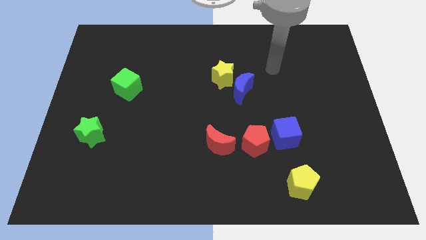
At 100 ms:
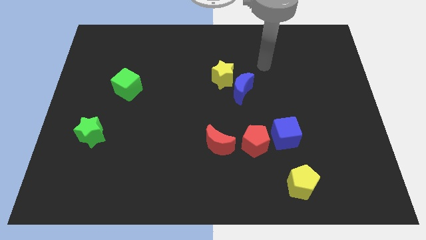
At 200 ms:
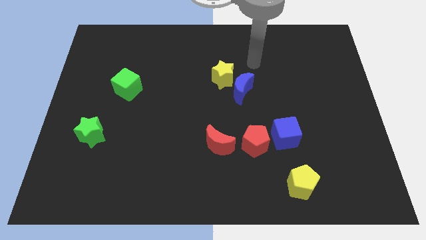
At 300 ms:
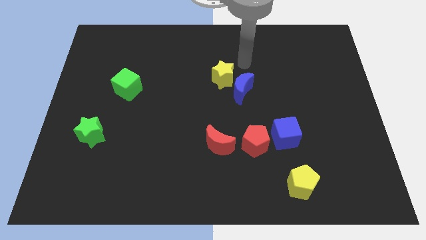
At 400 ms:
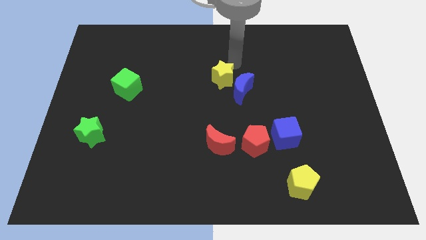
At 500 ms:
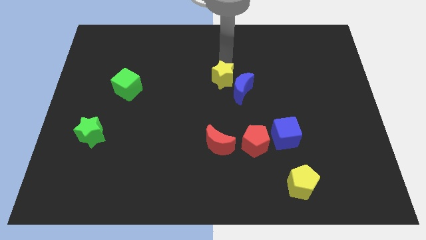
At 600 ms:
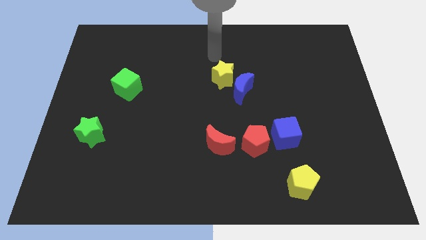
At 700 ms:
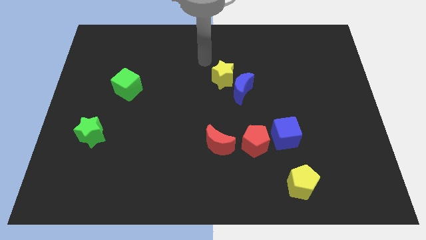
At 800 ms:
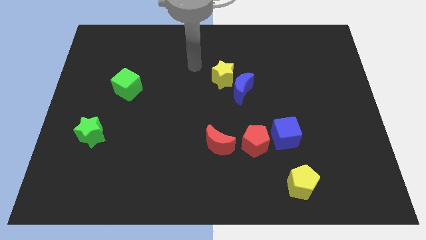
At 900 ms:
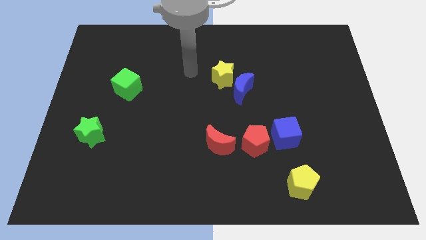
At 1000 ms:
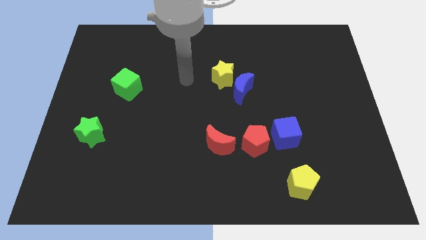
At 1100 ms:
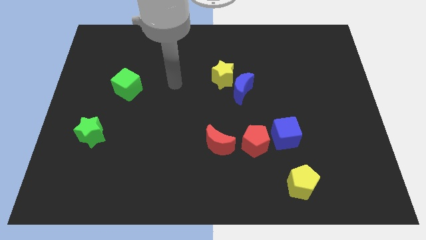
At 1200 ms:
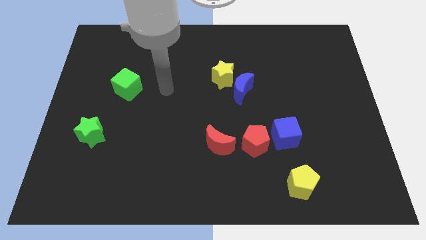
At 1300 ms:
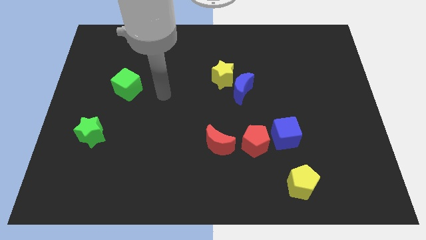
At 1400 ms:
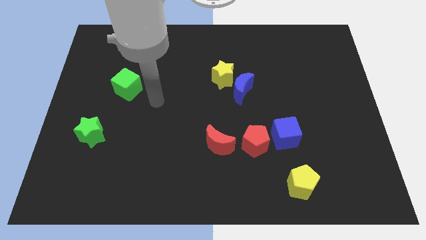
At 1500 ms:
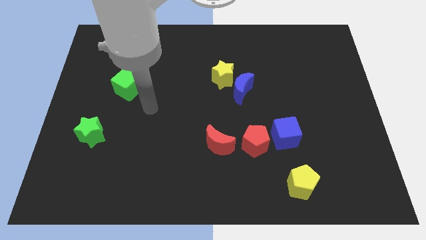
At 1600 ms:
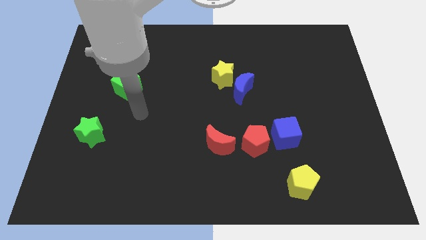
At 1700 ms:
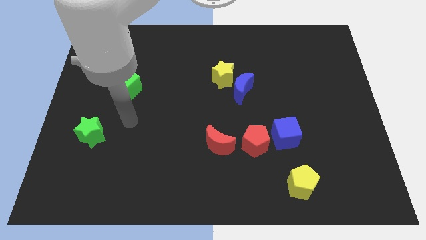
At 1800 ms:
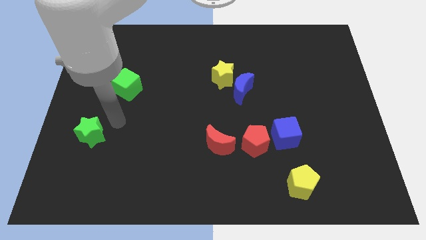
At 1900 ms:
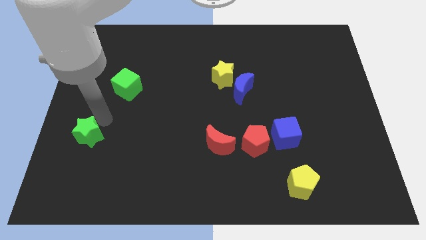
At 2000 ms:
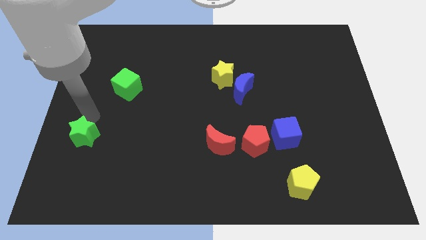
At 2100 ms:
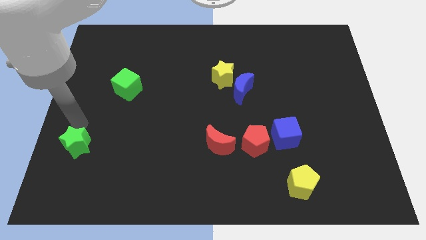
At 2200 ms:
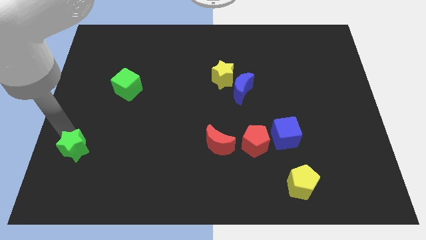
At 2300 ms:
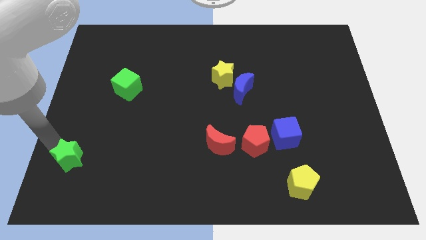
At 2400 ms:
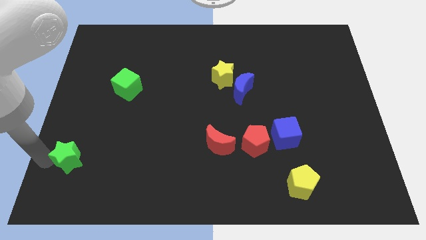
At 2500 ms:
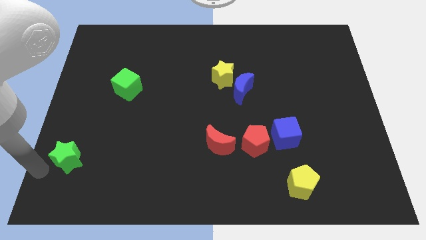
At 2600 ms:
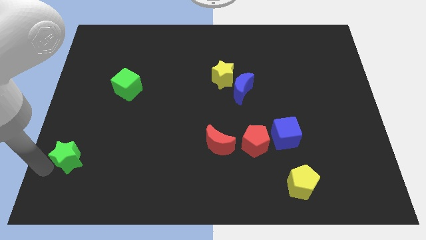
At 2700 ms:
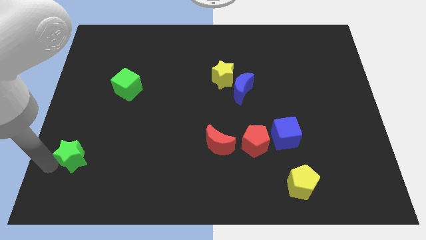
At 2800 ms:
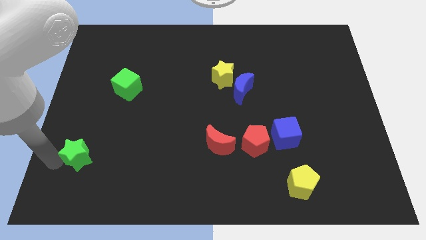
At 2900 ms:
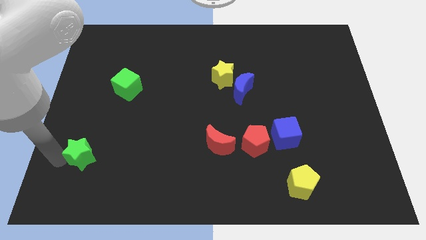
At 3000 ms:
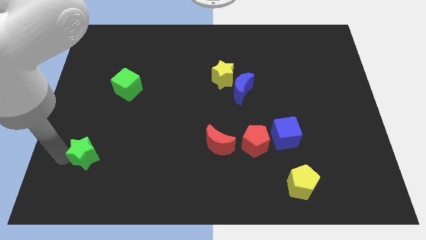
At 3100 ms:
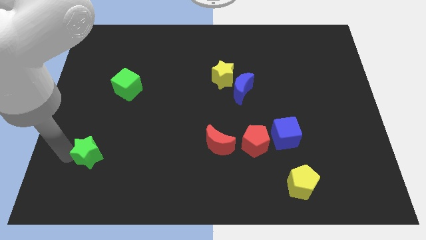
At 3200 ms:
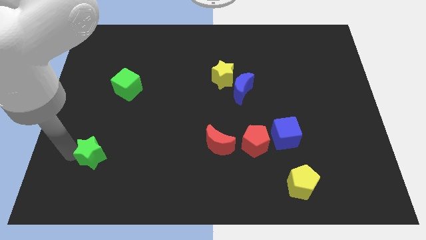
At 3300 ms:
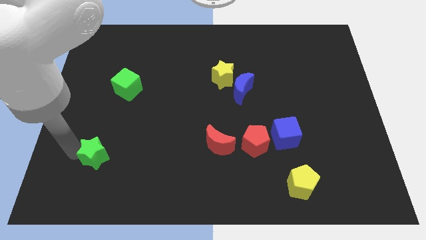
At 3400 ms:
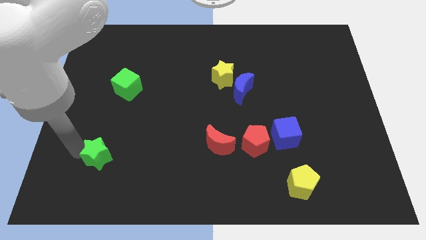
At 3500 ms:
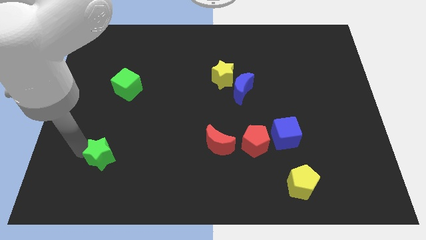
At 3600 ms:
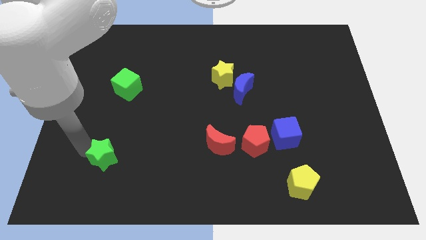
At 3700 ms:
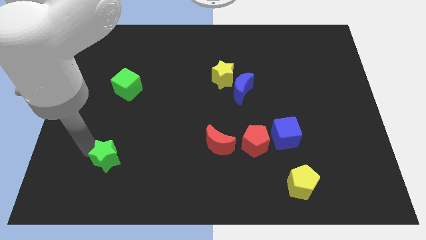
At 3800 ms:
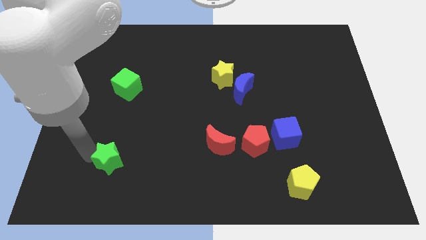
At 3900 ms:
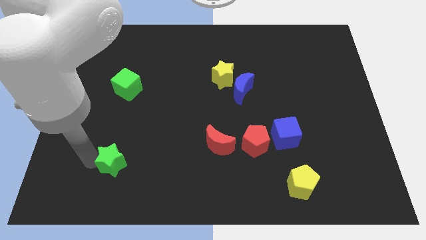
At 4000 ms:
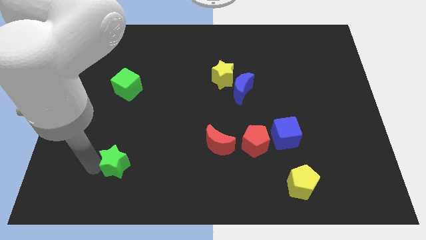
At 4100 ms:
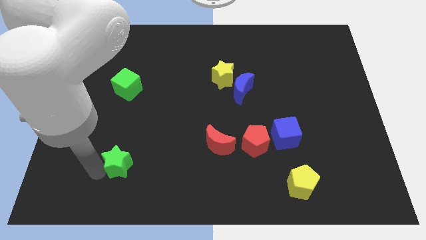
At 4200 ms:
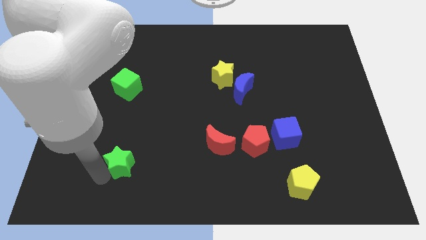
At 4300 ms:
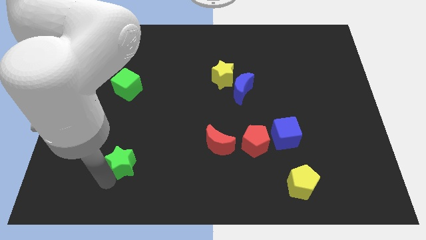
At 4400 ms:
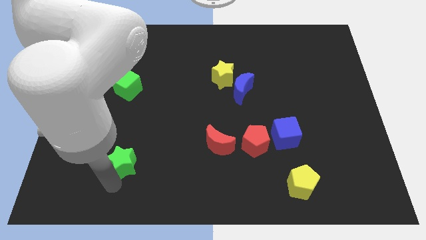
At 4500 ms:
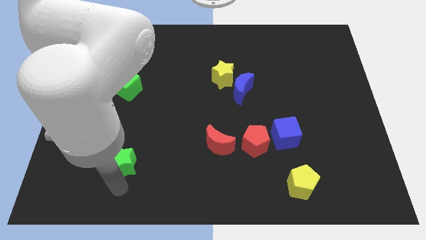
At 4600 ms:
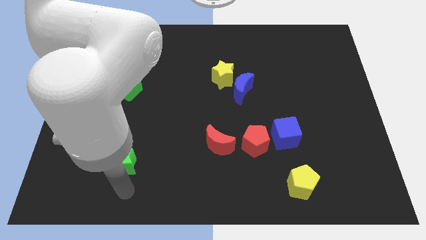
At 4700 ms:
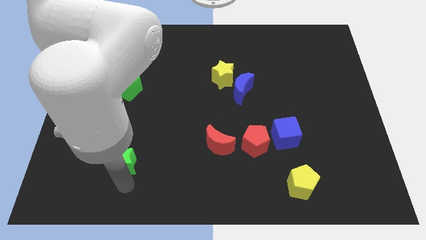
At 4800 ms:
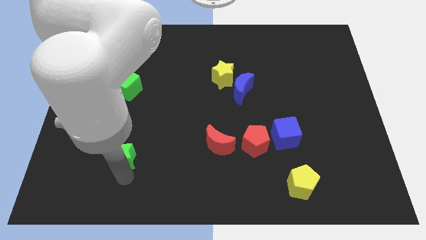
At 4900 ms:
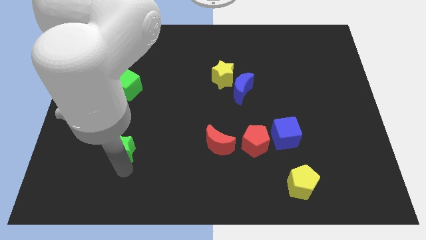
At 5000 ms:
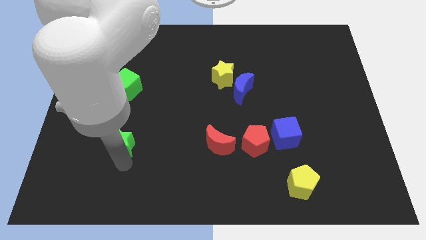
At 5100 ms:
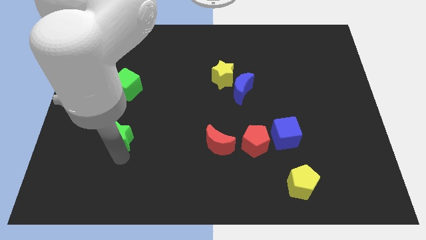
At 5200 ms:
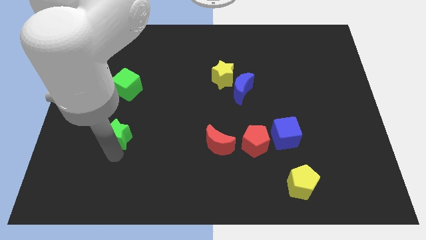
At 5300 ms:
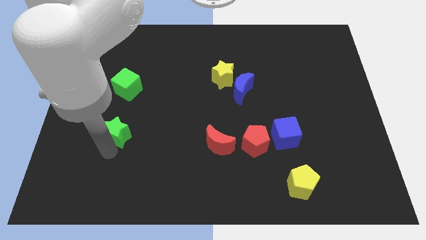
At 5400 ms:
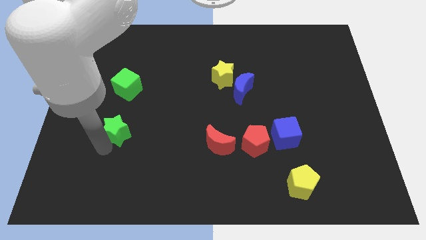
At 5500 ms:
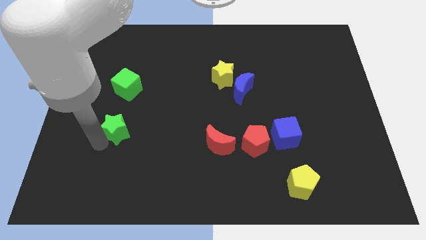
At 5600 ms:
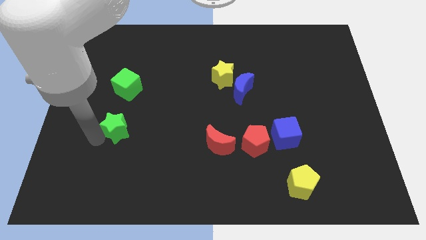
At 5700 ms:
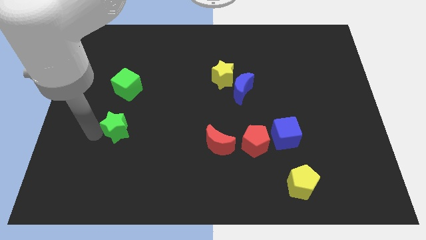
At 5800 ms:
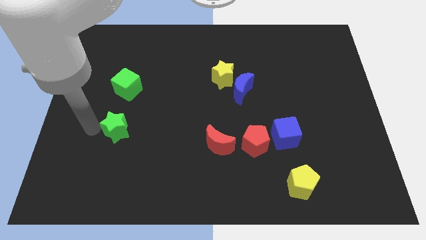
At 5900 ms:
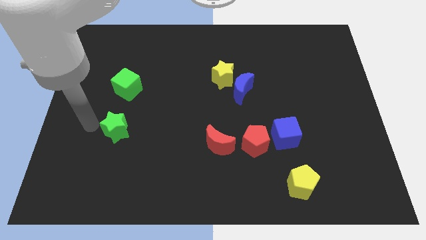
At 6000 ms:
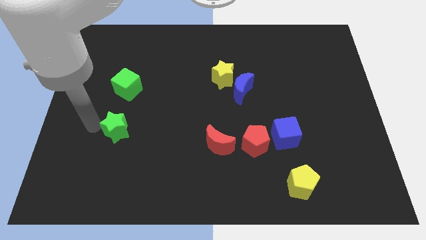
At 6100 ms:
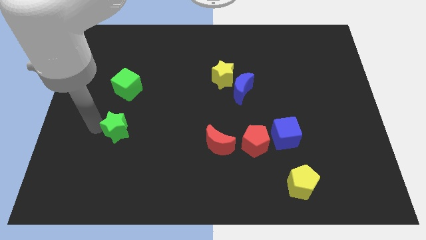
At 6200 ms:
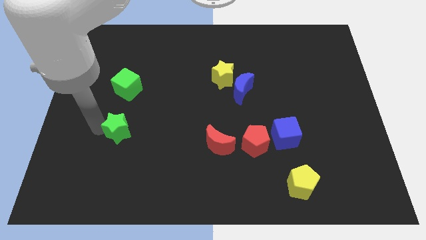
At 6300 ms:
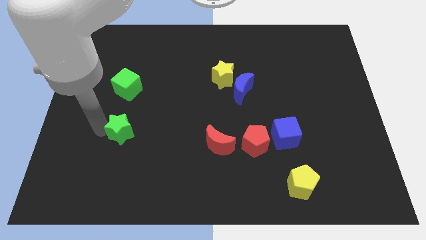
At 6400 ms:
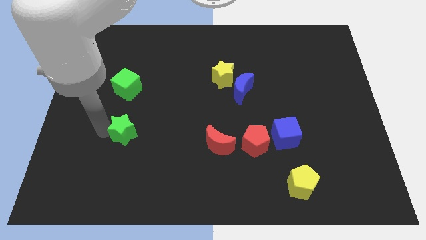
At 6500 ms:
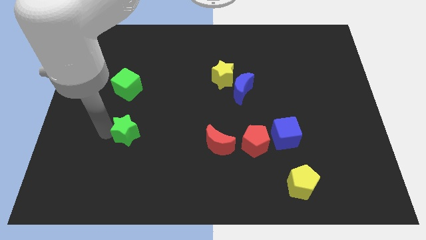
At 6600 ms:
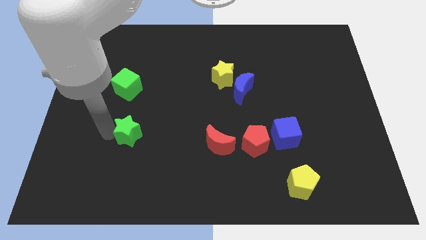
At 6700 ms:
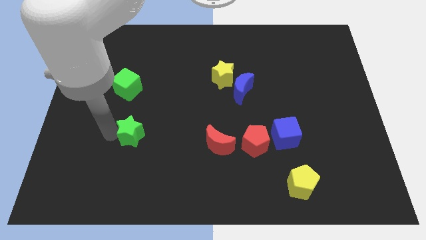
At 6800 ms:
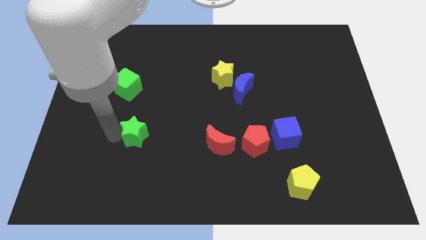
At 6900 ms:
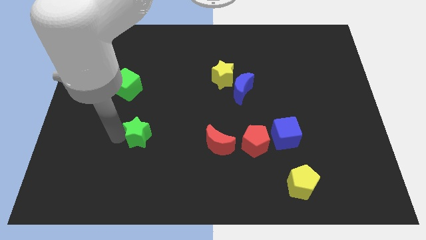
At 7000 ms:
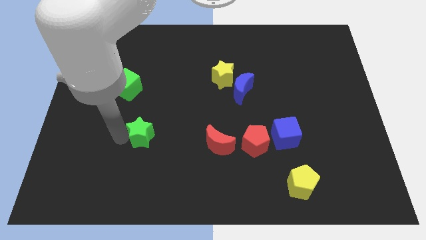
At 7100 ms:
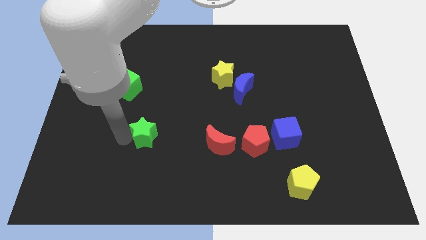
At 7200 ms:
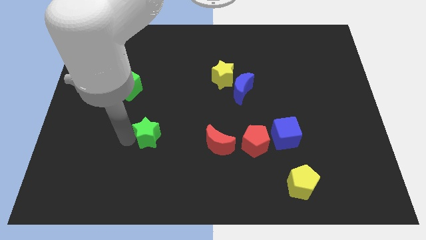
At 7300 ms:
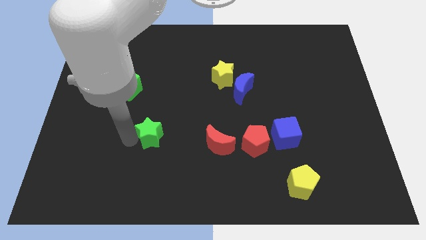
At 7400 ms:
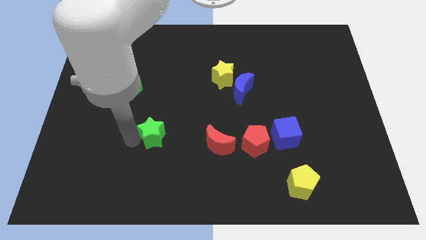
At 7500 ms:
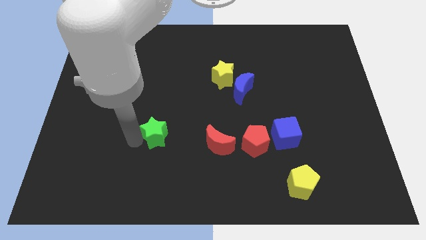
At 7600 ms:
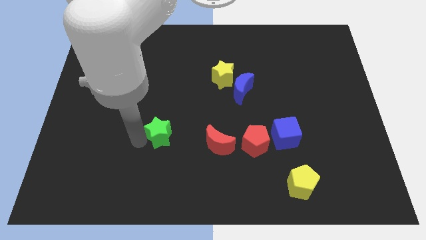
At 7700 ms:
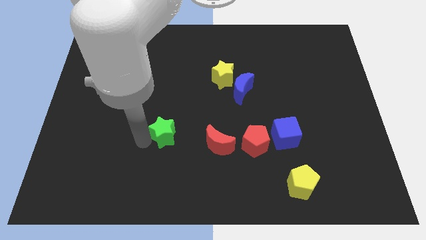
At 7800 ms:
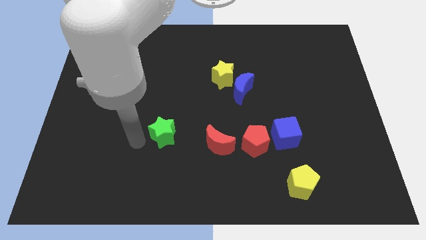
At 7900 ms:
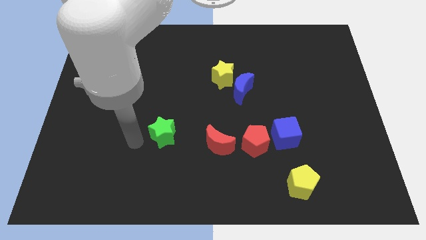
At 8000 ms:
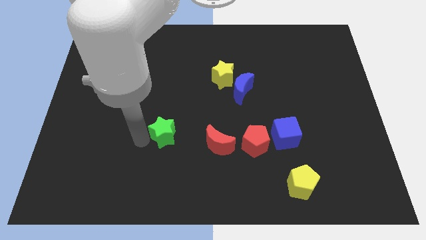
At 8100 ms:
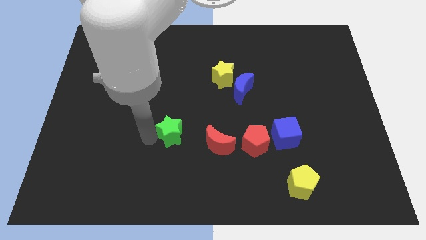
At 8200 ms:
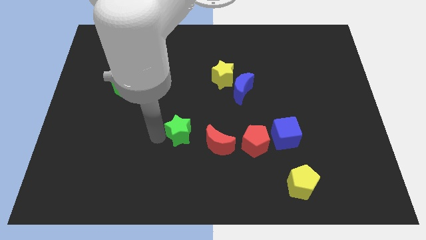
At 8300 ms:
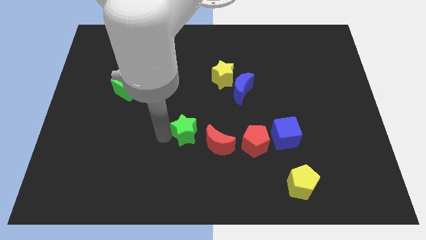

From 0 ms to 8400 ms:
push the green star to the right
